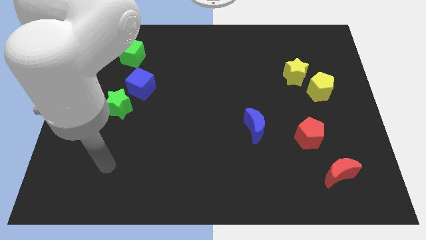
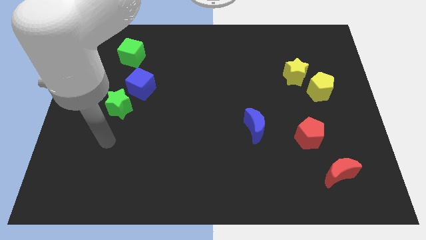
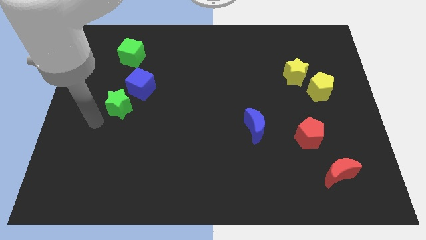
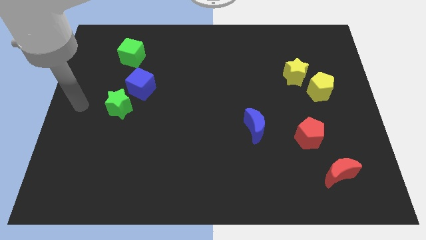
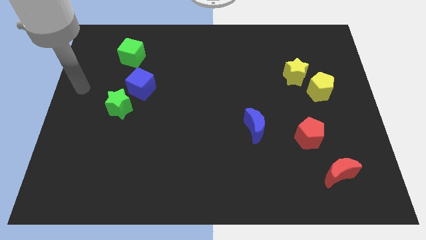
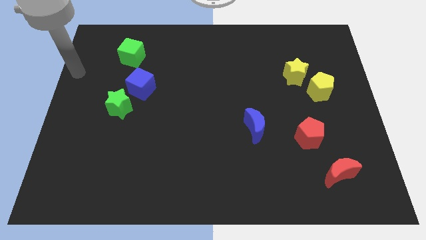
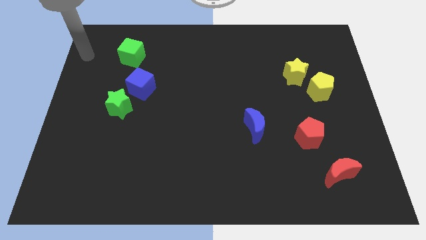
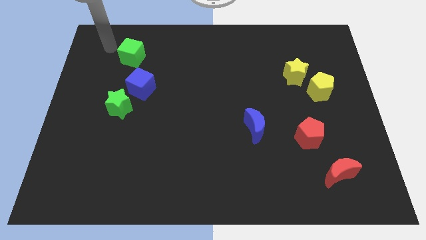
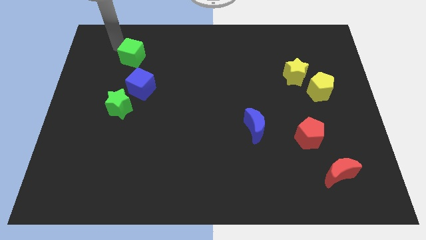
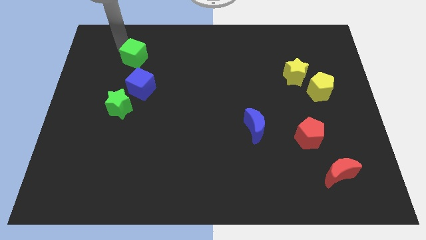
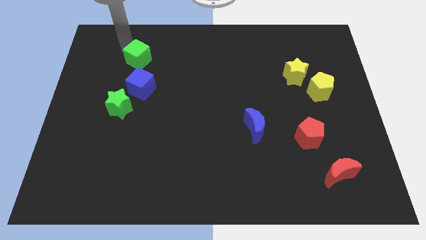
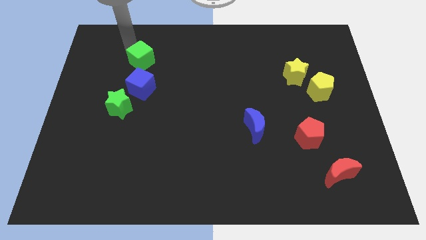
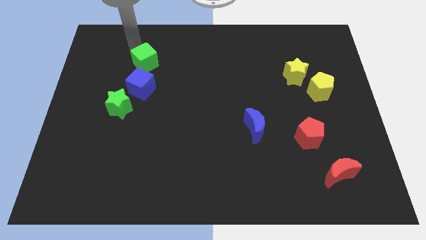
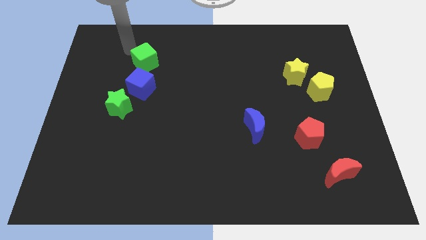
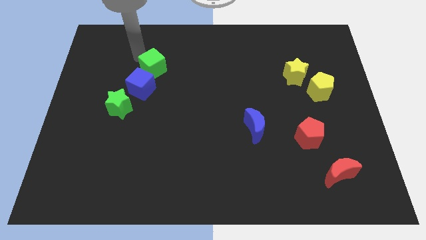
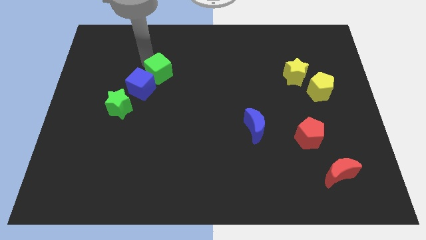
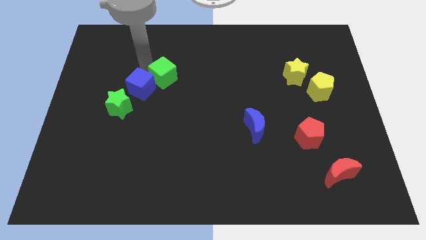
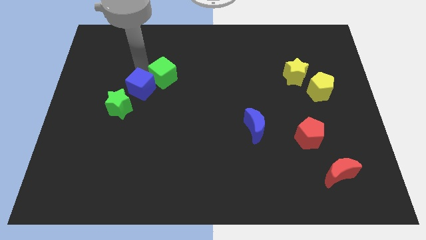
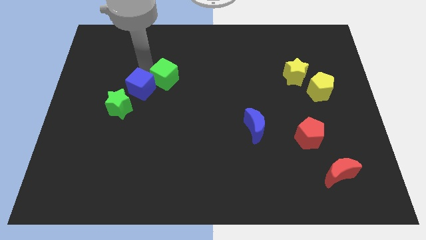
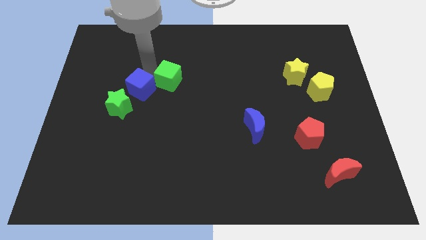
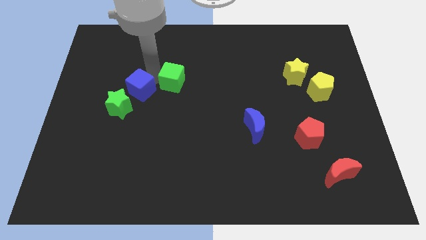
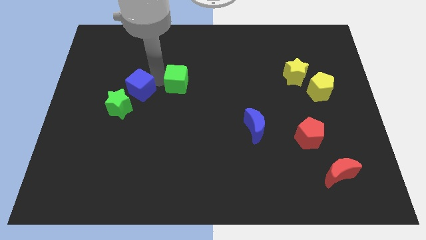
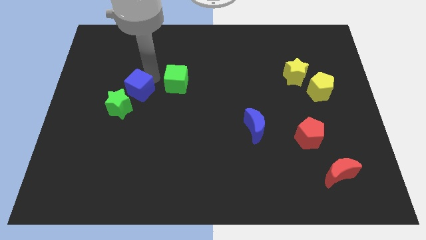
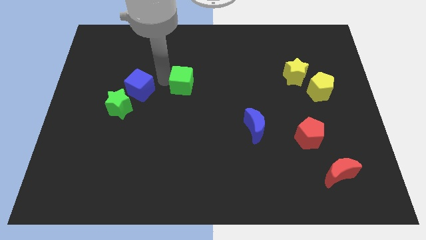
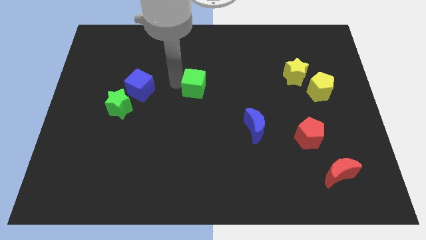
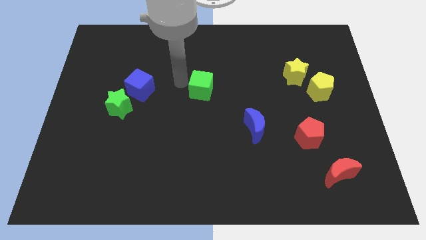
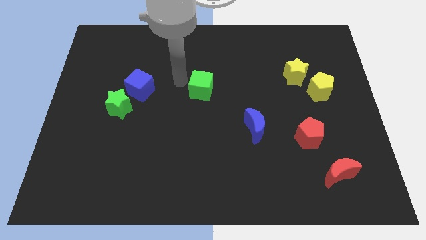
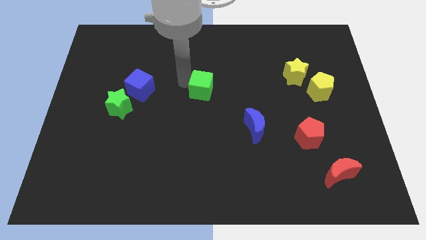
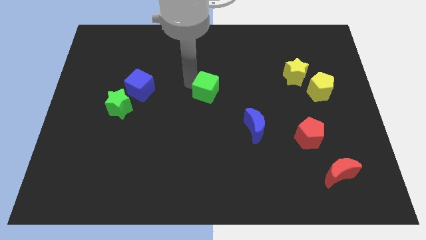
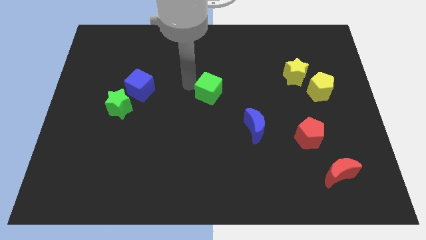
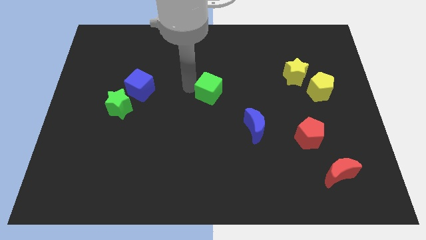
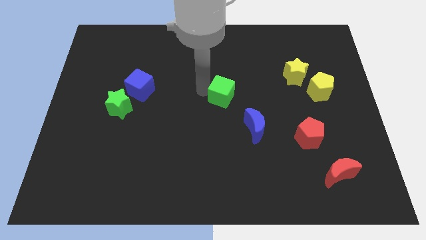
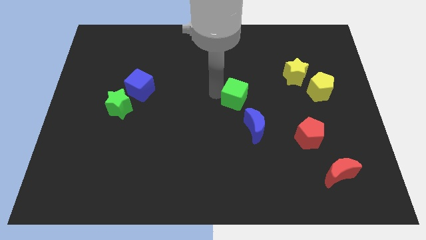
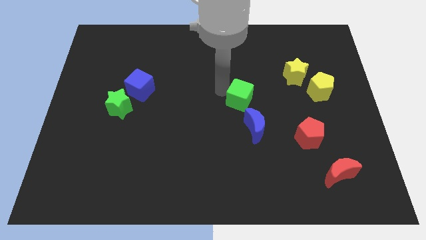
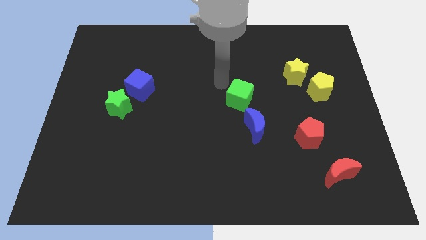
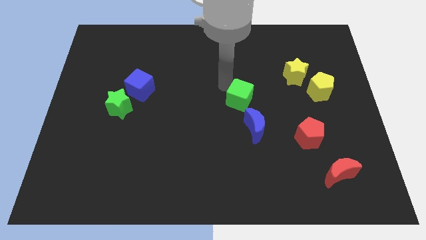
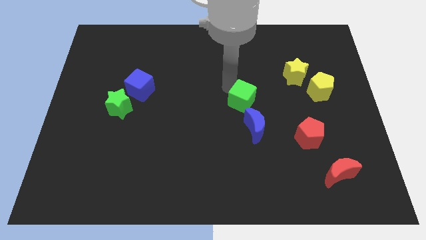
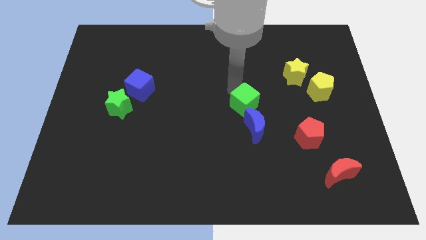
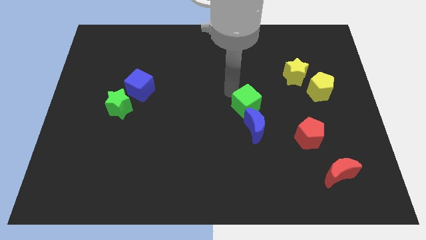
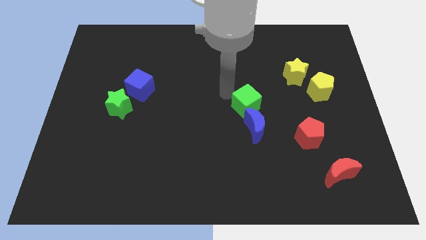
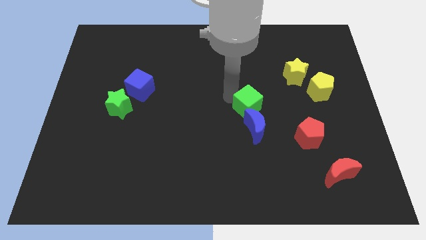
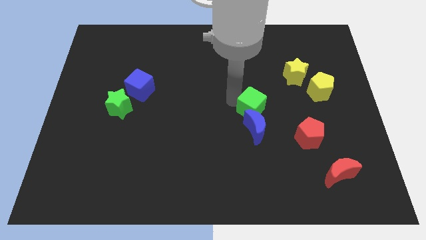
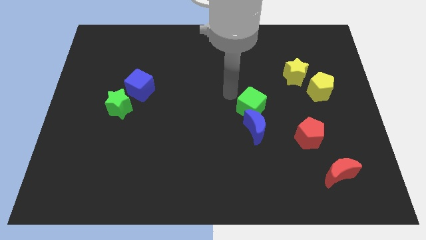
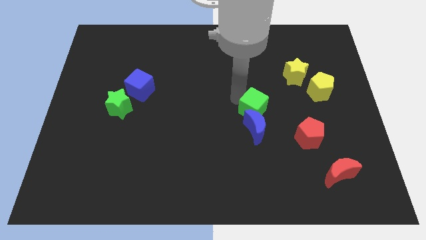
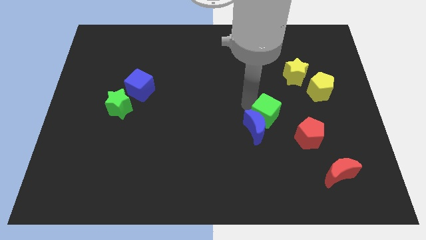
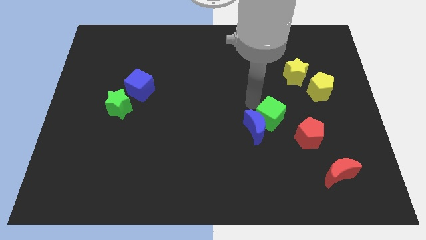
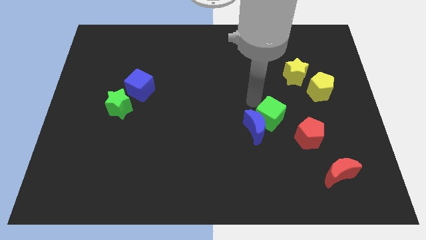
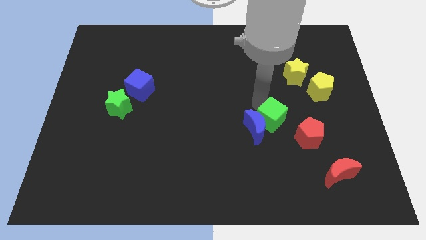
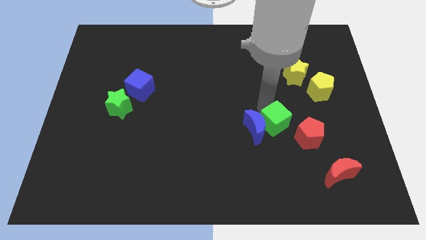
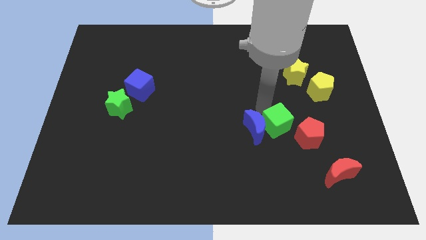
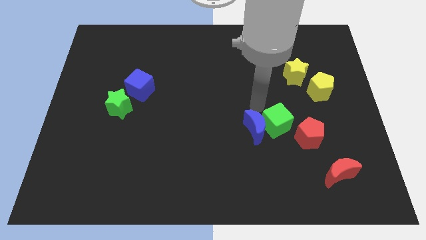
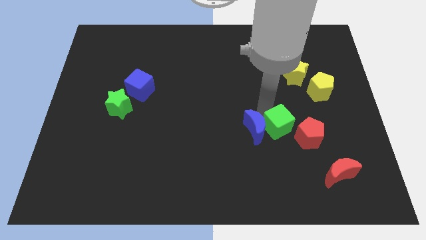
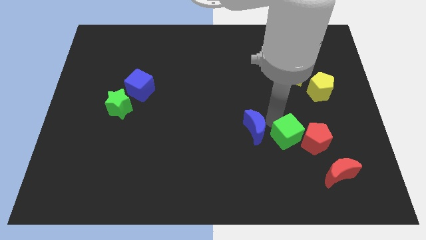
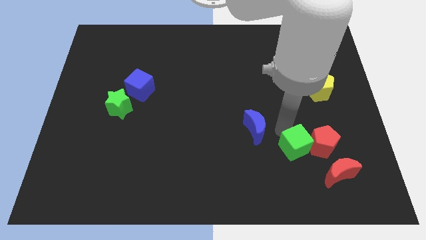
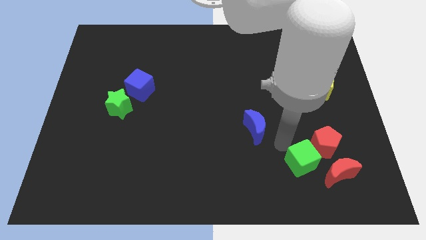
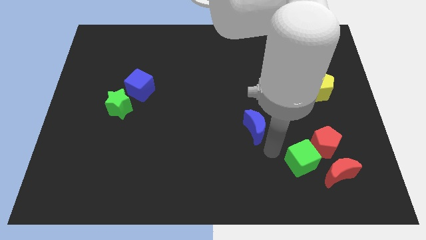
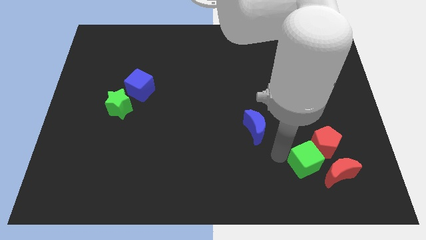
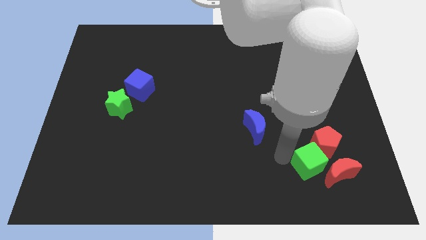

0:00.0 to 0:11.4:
slide the green cube towards the red moon

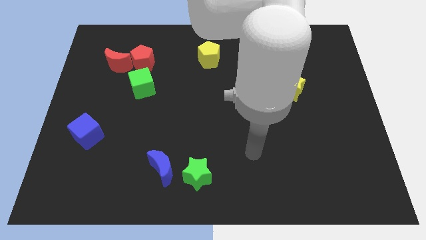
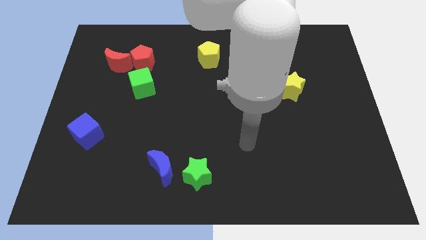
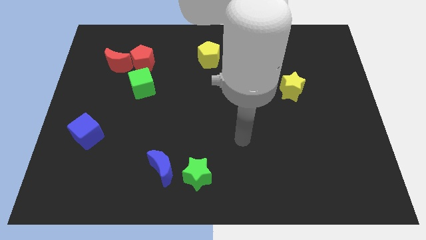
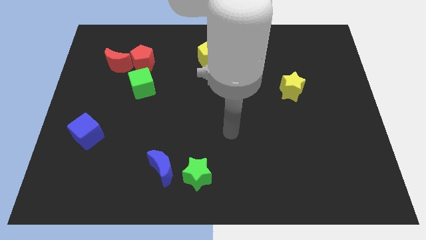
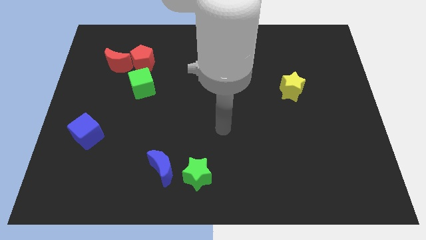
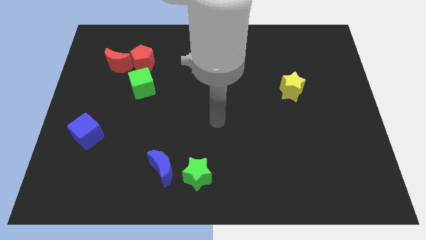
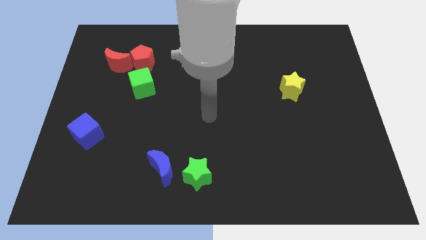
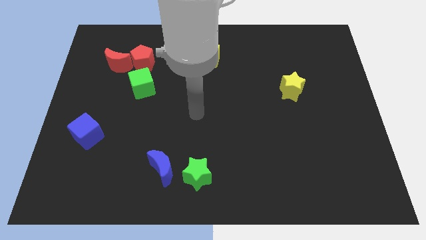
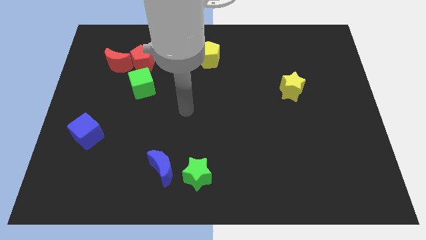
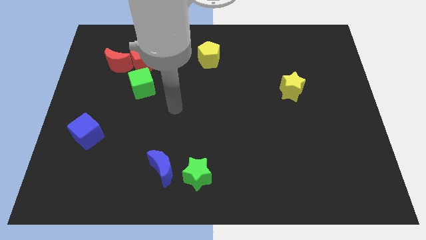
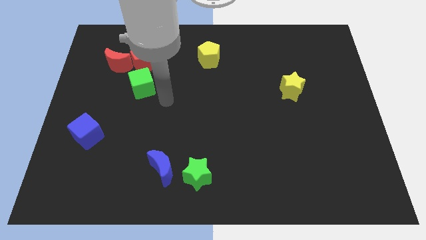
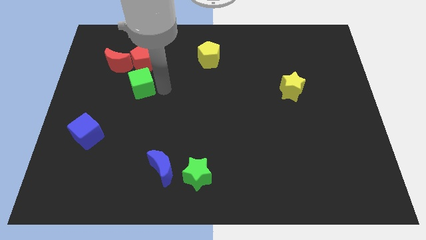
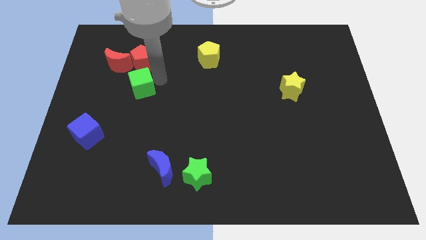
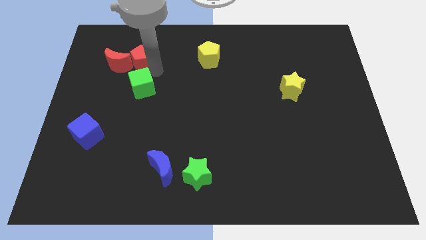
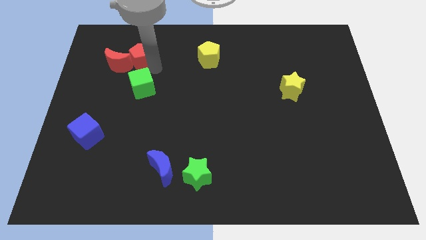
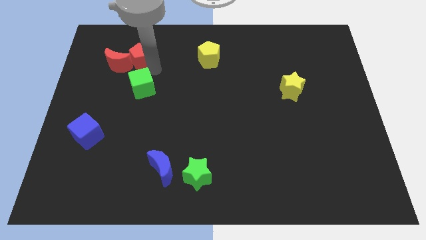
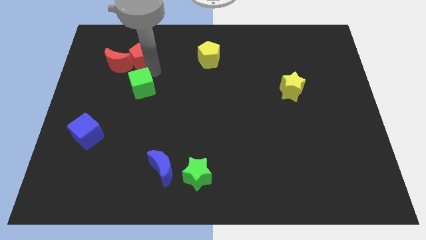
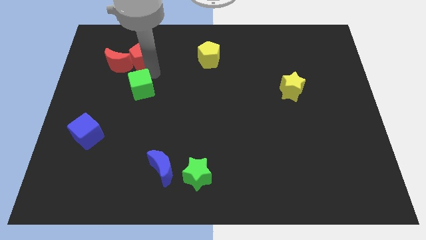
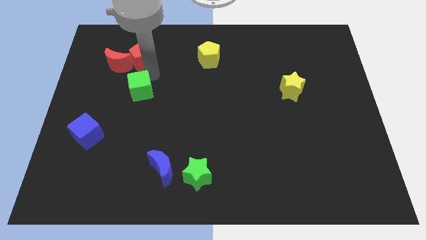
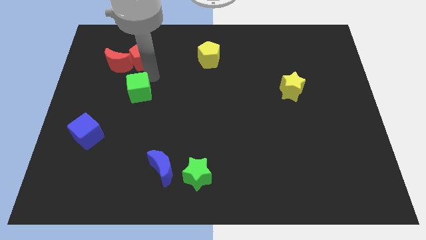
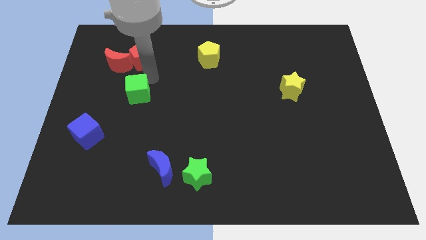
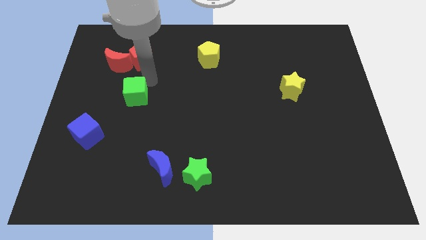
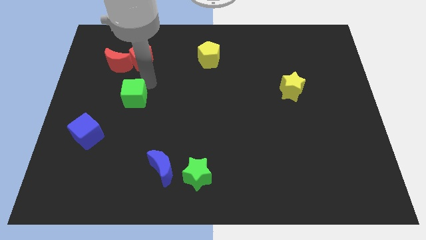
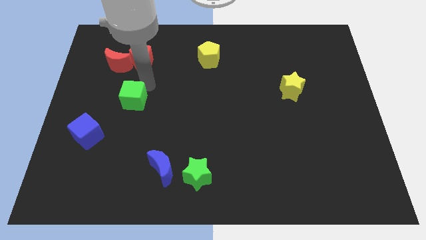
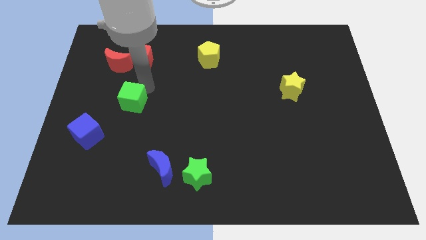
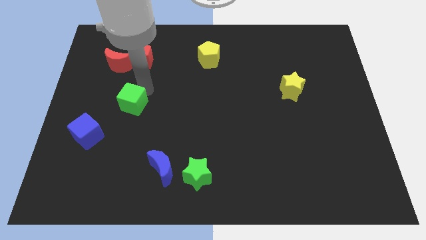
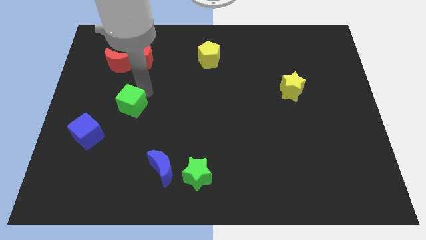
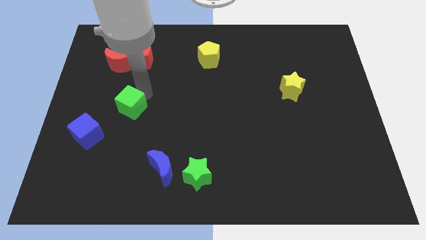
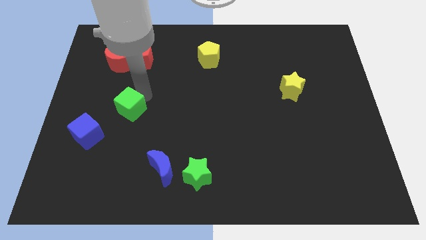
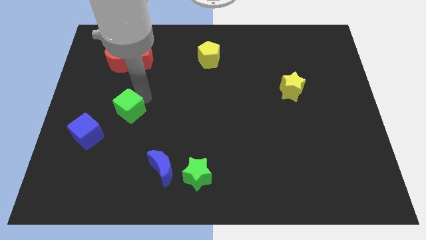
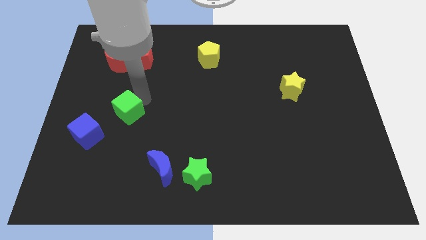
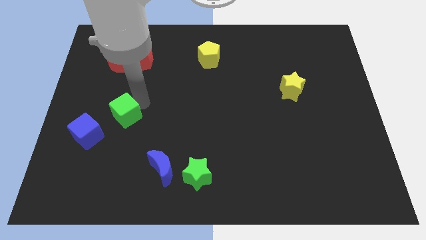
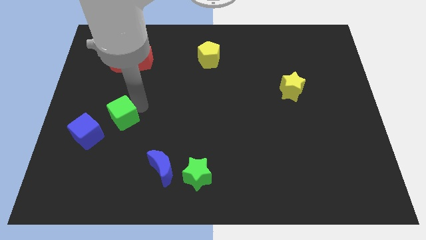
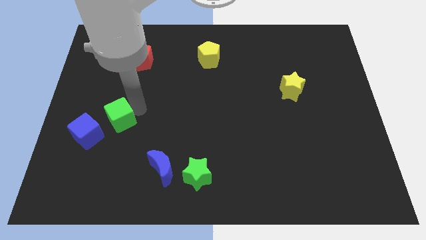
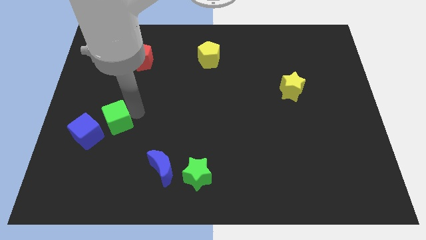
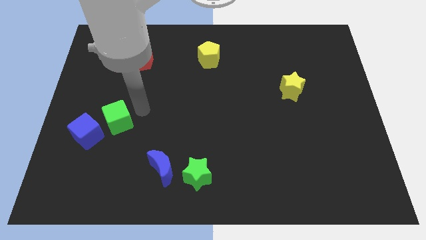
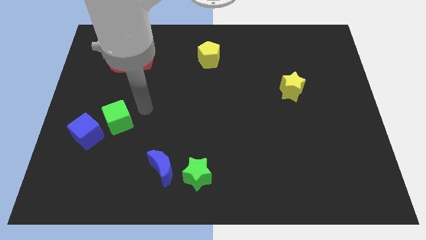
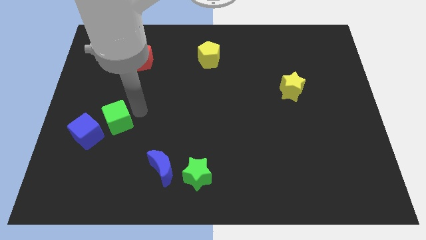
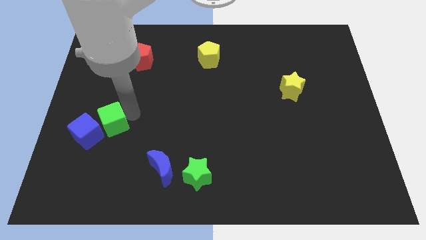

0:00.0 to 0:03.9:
put the green cube close to the blue cube
